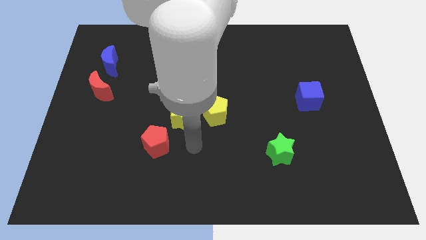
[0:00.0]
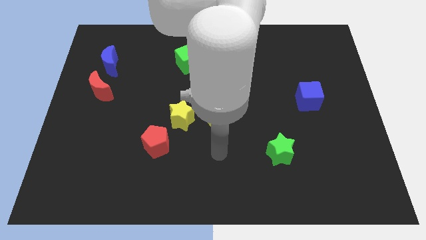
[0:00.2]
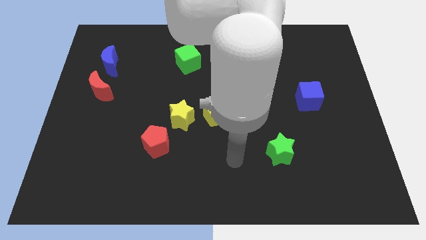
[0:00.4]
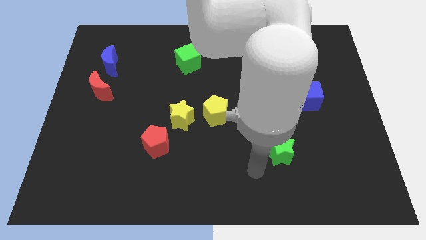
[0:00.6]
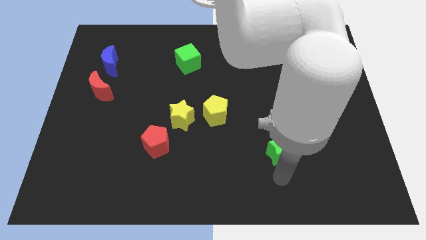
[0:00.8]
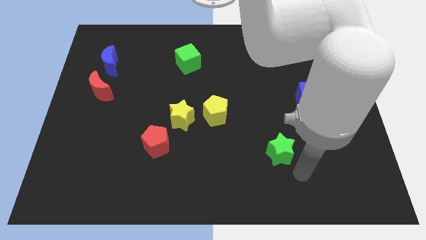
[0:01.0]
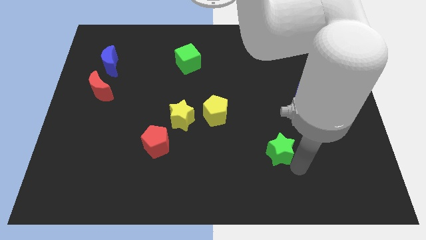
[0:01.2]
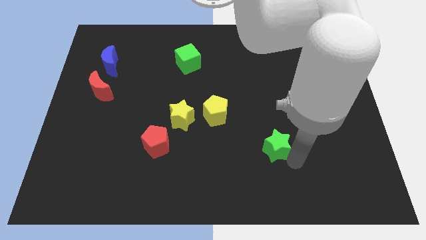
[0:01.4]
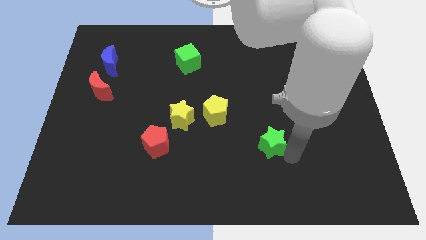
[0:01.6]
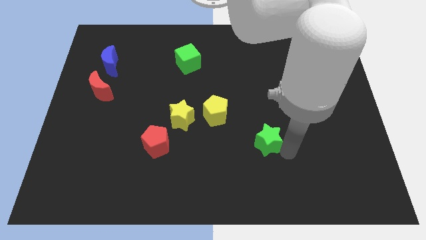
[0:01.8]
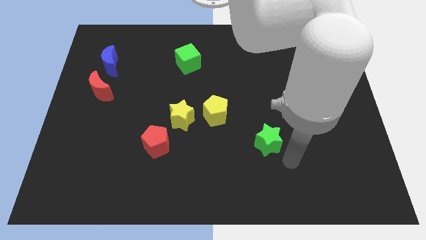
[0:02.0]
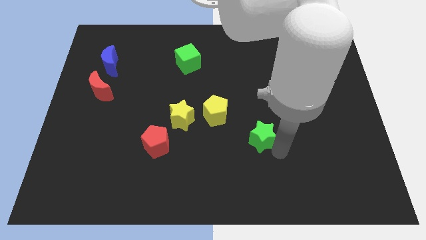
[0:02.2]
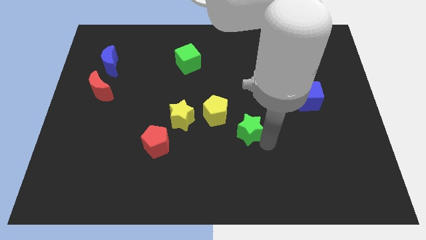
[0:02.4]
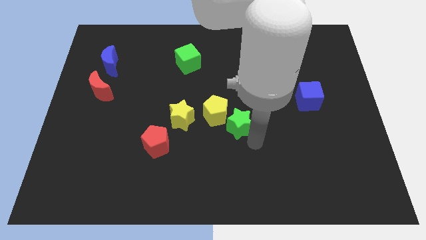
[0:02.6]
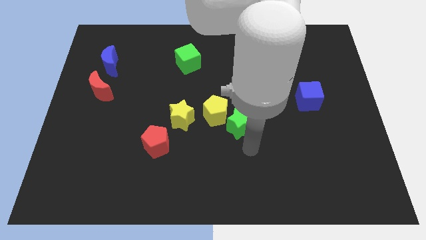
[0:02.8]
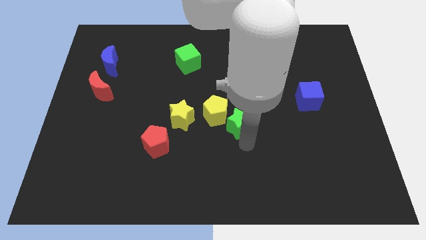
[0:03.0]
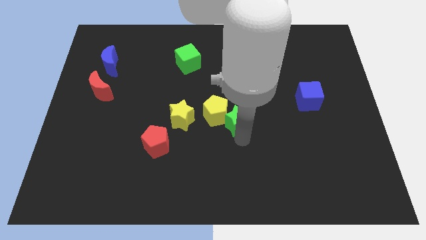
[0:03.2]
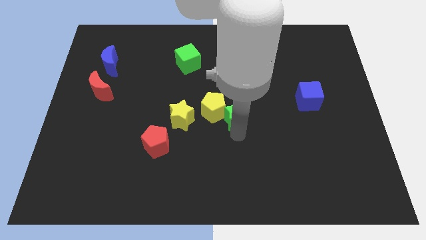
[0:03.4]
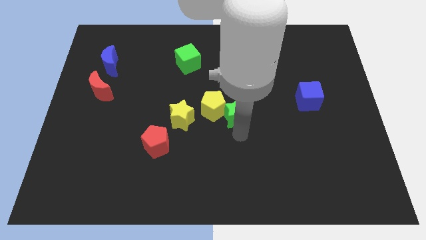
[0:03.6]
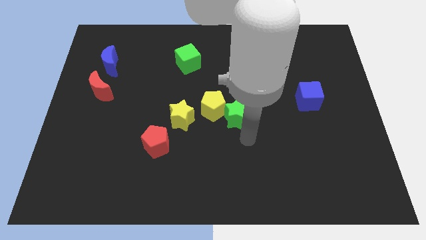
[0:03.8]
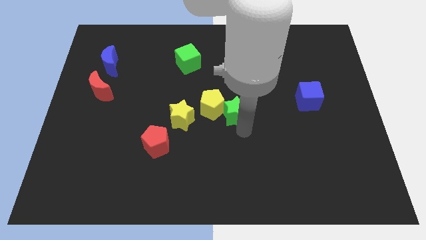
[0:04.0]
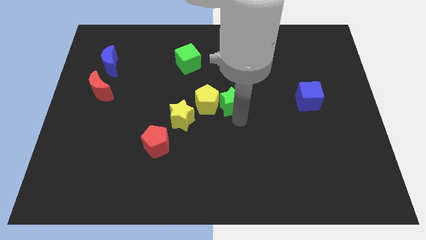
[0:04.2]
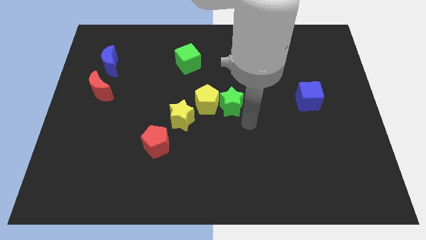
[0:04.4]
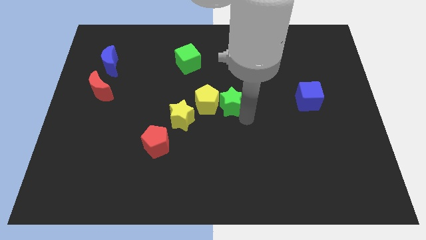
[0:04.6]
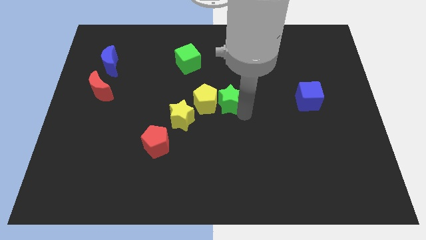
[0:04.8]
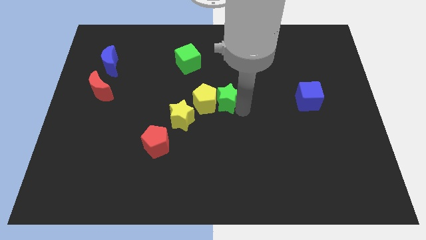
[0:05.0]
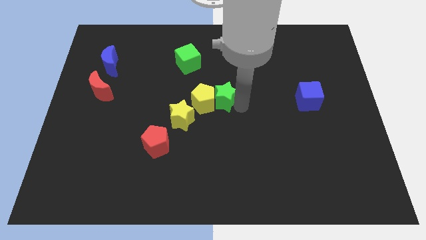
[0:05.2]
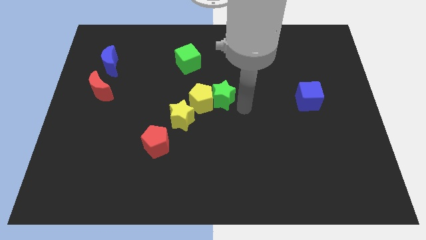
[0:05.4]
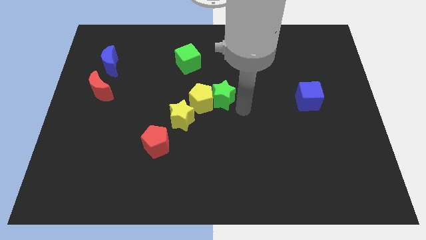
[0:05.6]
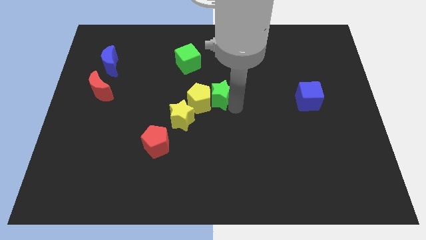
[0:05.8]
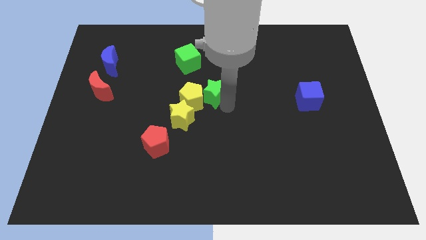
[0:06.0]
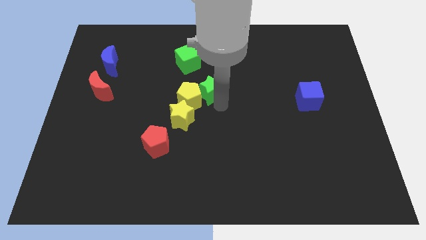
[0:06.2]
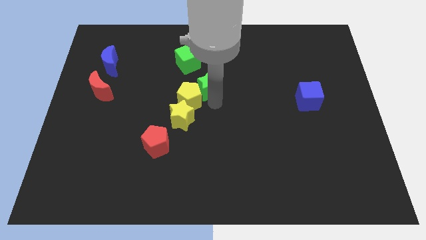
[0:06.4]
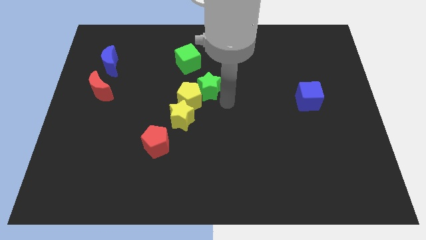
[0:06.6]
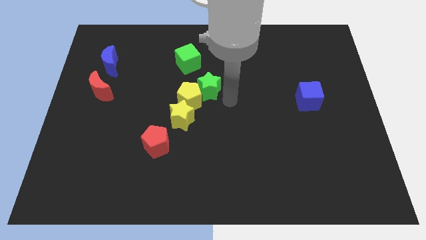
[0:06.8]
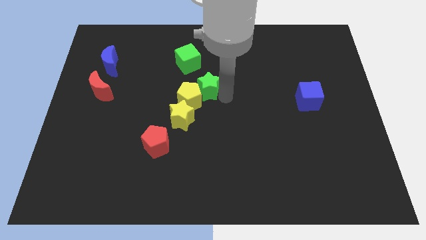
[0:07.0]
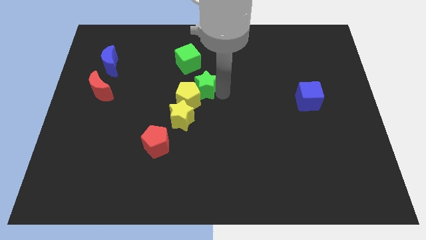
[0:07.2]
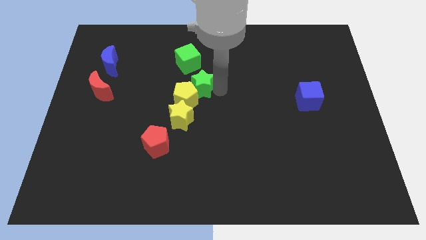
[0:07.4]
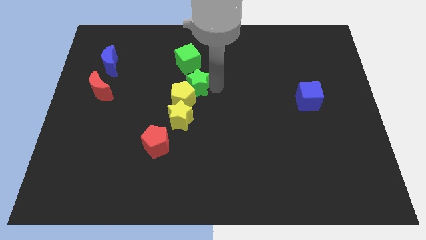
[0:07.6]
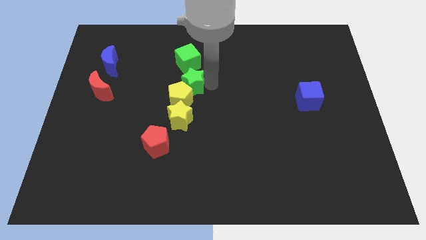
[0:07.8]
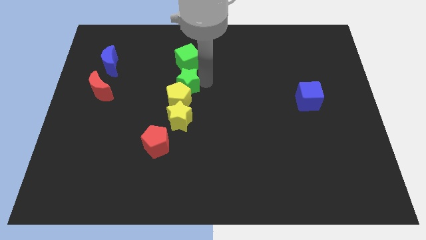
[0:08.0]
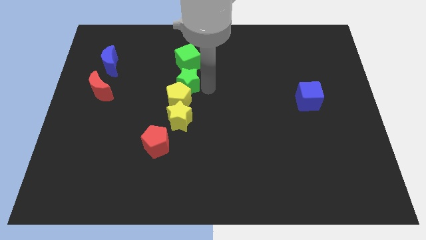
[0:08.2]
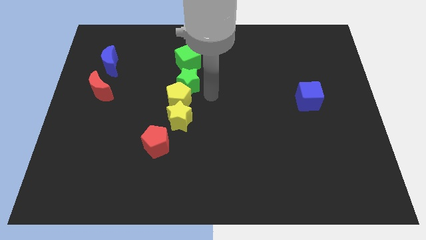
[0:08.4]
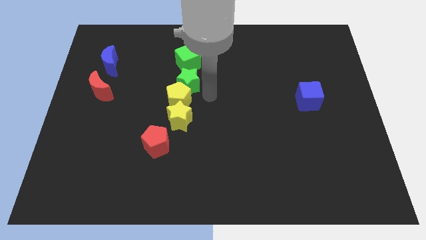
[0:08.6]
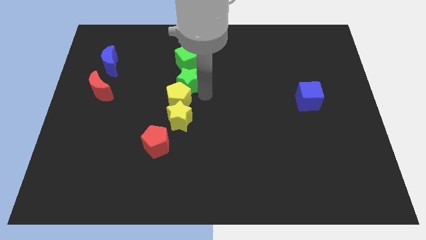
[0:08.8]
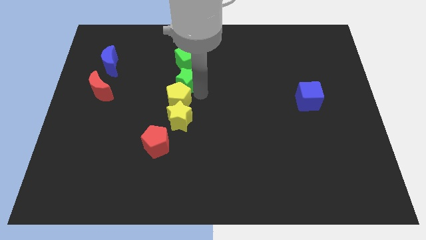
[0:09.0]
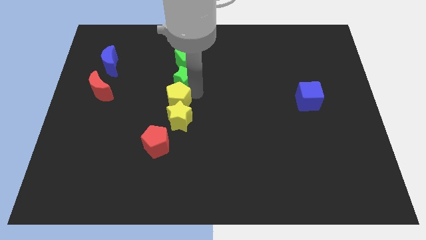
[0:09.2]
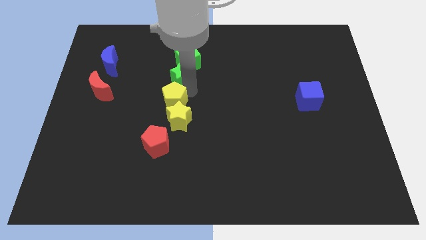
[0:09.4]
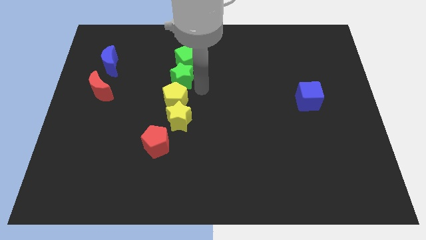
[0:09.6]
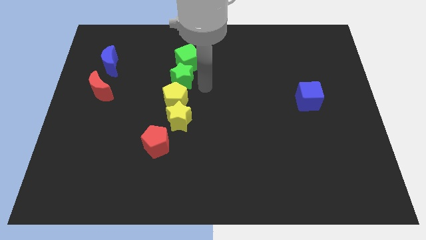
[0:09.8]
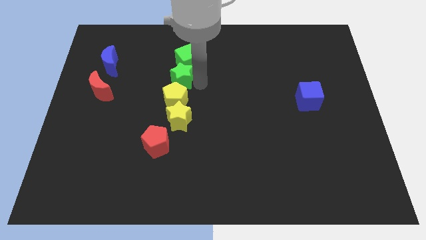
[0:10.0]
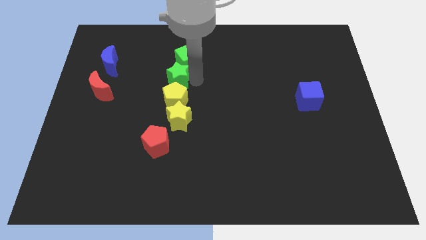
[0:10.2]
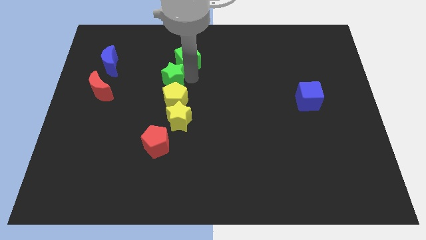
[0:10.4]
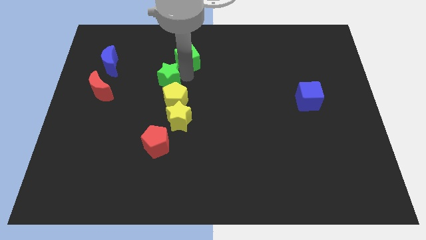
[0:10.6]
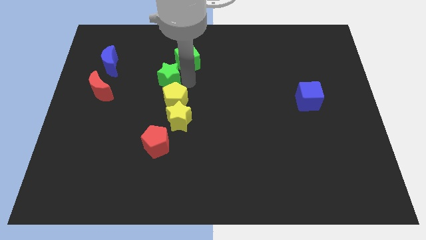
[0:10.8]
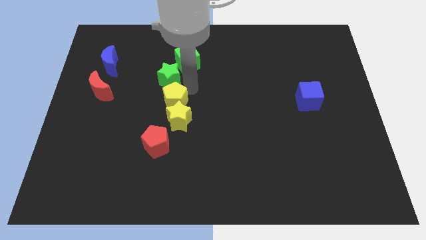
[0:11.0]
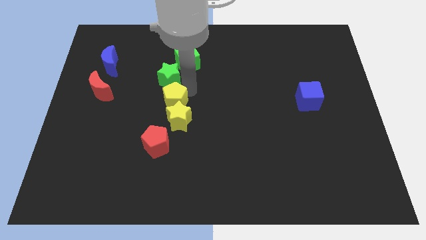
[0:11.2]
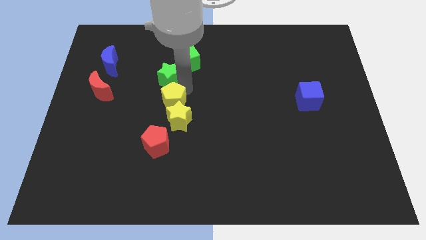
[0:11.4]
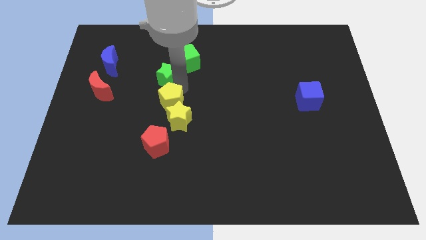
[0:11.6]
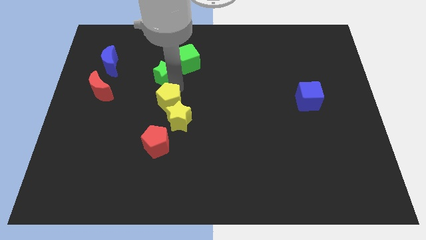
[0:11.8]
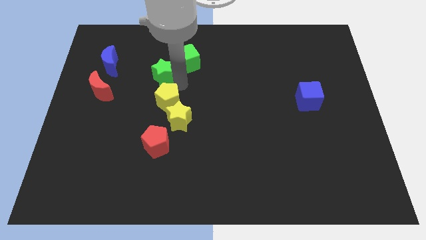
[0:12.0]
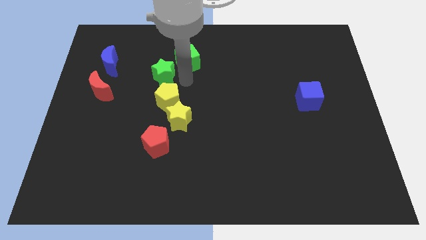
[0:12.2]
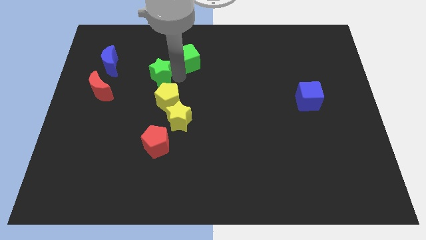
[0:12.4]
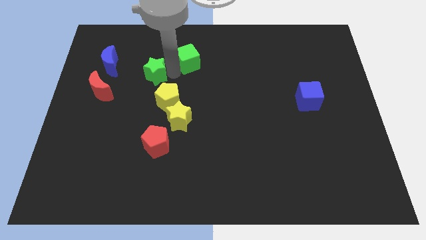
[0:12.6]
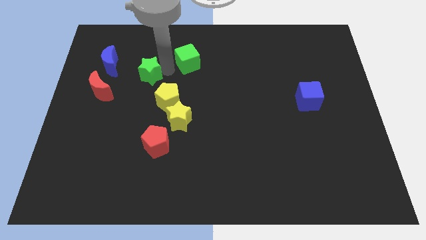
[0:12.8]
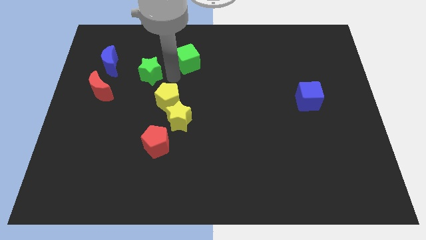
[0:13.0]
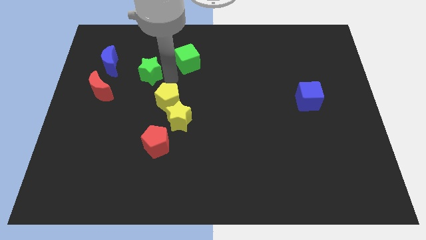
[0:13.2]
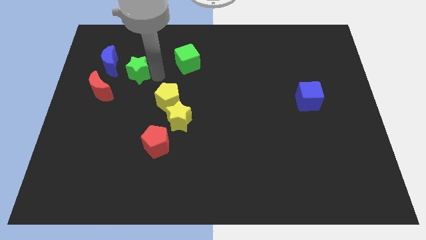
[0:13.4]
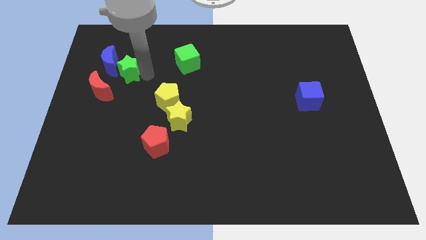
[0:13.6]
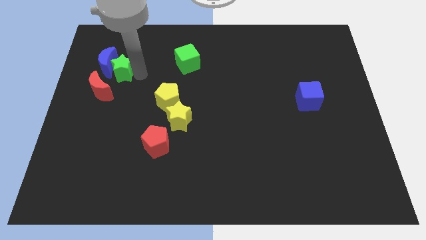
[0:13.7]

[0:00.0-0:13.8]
move the green star towards the blue moon
